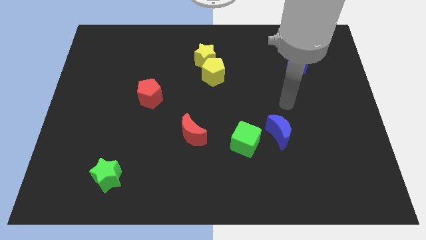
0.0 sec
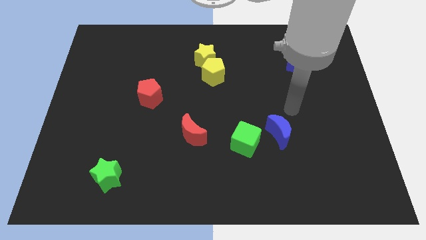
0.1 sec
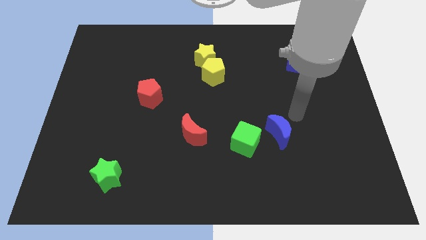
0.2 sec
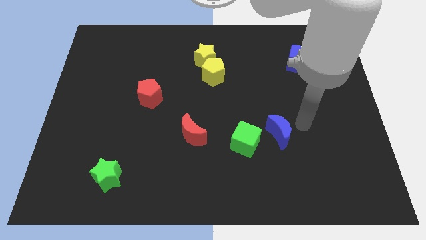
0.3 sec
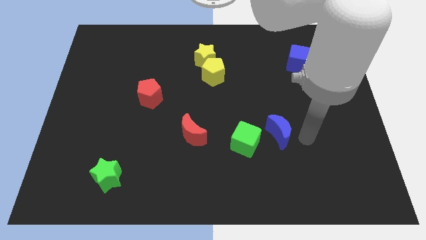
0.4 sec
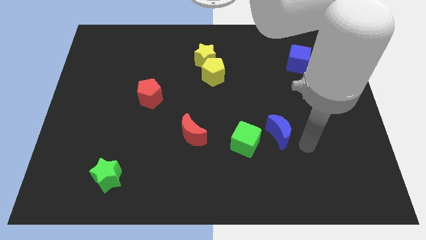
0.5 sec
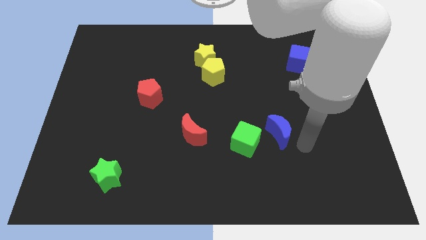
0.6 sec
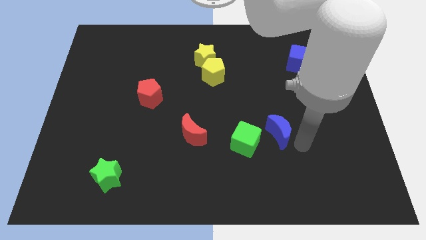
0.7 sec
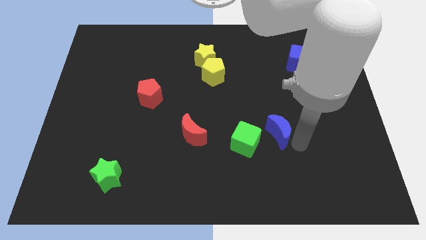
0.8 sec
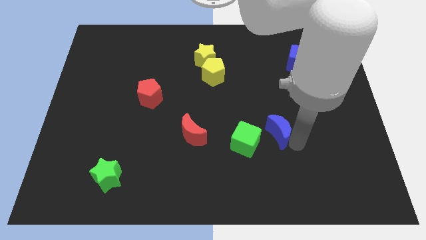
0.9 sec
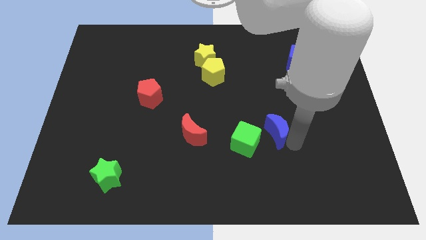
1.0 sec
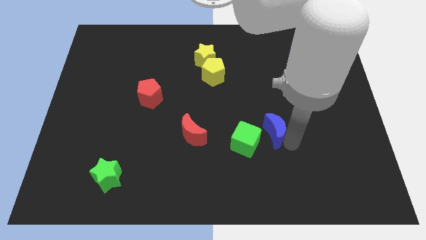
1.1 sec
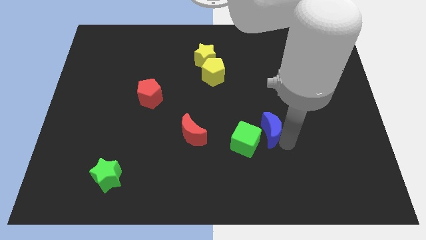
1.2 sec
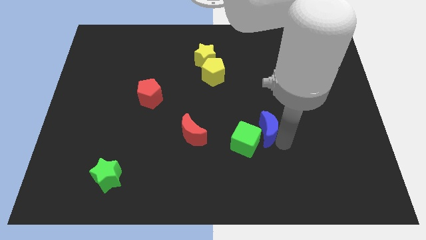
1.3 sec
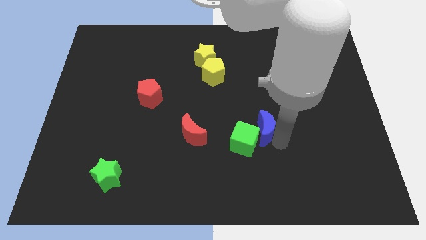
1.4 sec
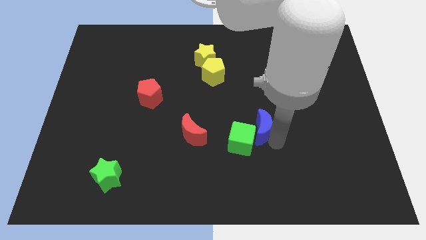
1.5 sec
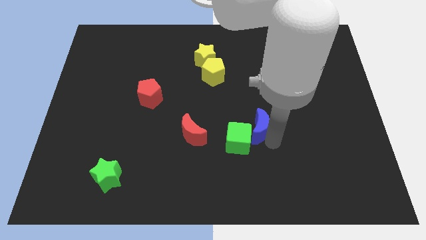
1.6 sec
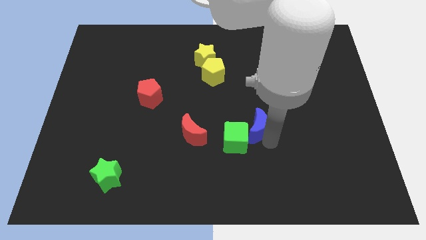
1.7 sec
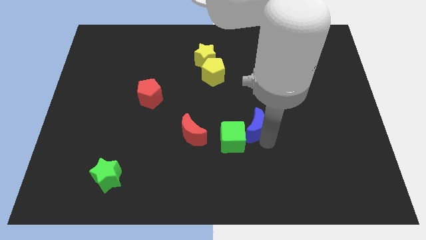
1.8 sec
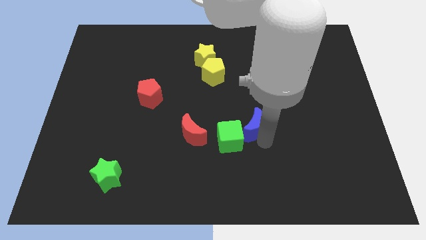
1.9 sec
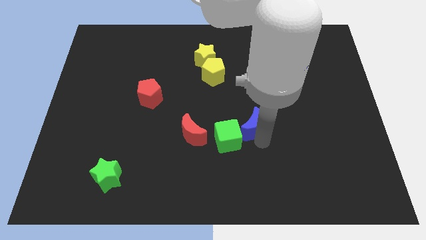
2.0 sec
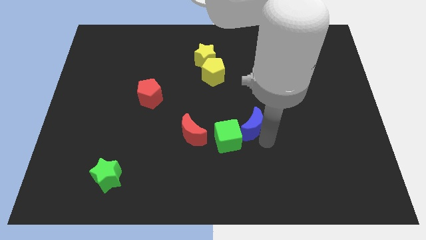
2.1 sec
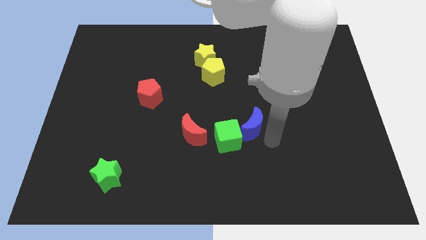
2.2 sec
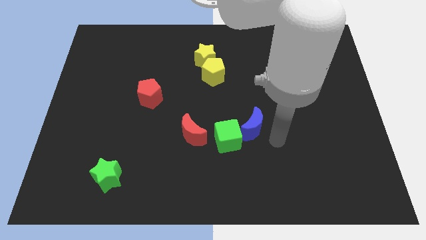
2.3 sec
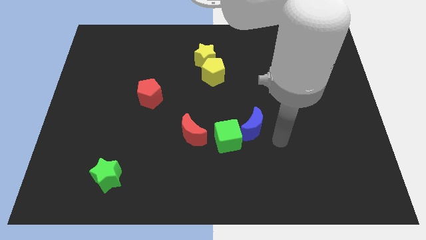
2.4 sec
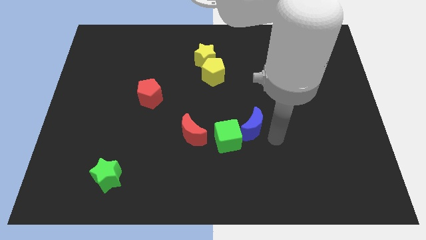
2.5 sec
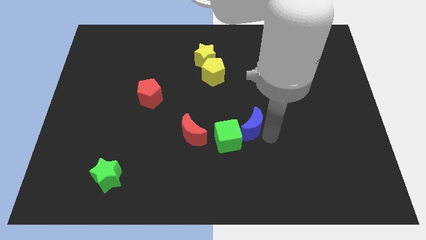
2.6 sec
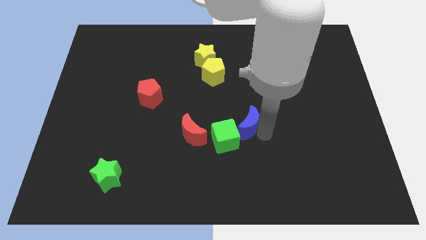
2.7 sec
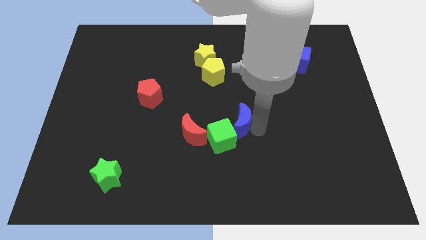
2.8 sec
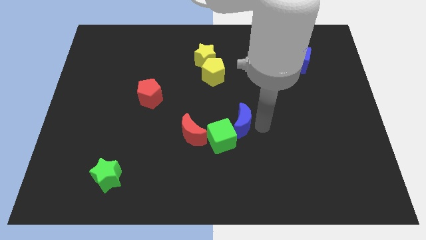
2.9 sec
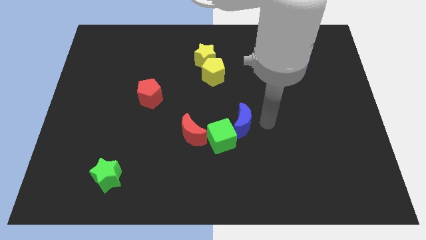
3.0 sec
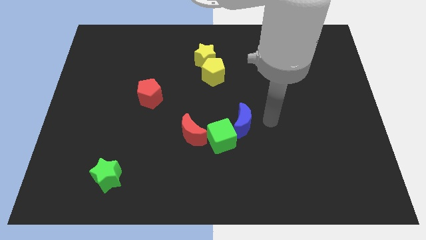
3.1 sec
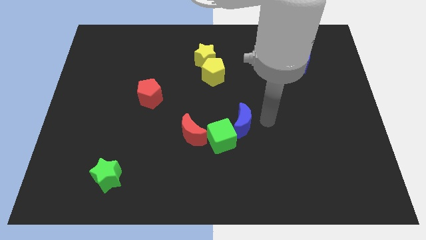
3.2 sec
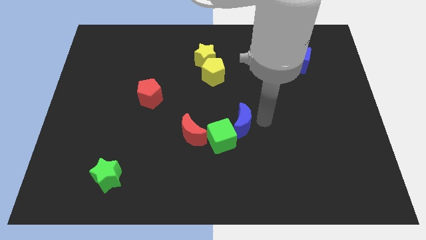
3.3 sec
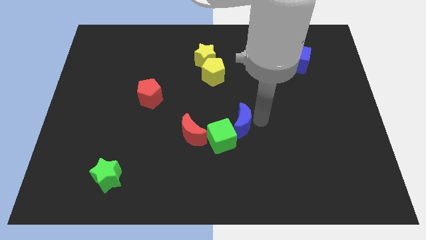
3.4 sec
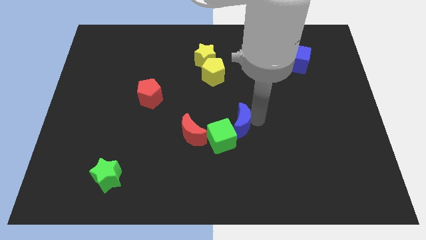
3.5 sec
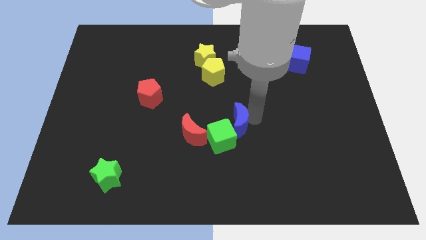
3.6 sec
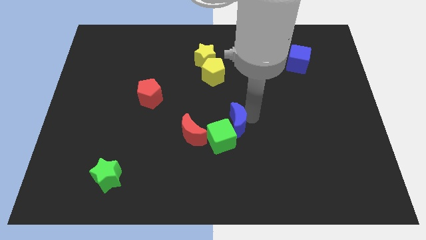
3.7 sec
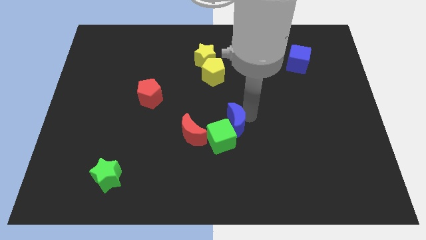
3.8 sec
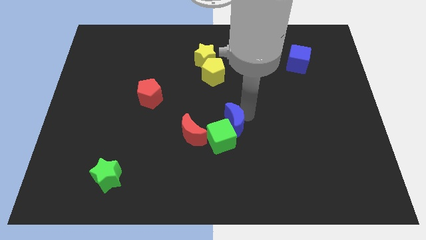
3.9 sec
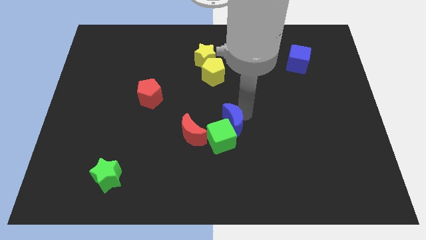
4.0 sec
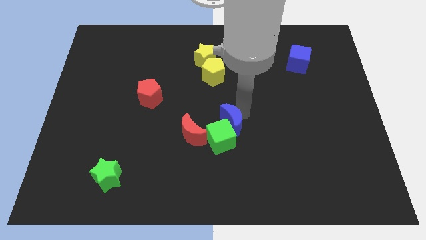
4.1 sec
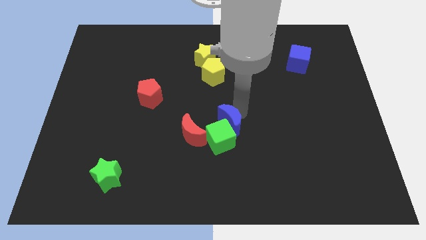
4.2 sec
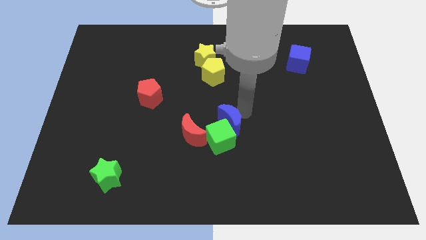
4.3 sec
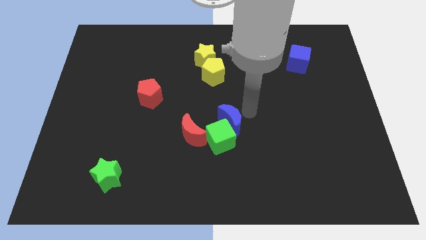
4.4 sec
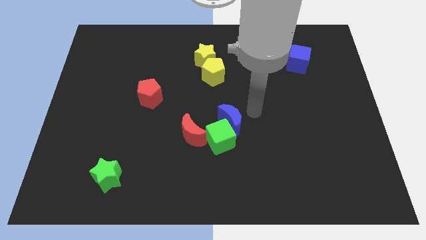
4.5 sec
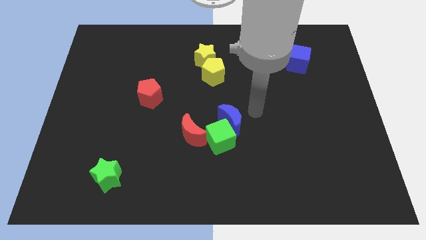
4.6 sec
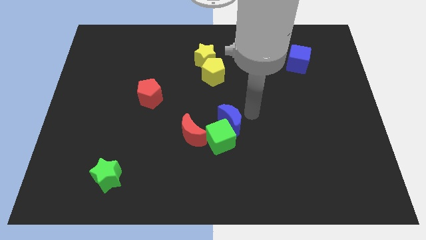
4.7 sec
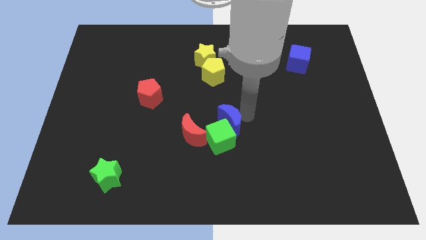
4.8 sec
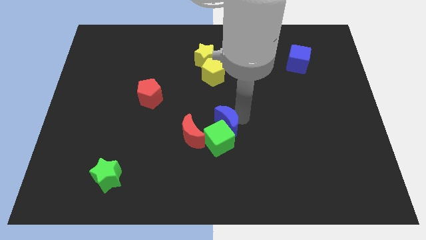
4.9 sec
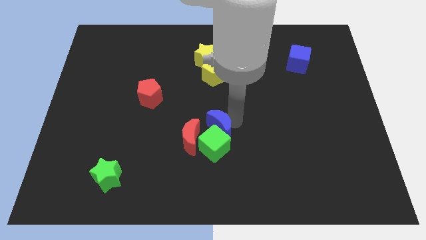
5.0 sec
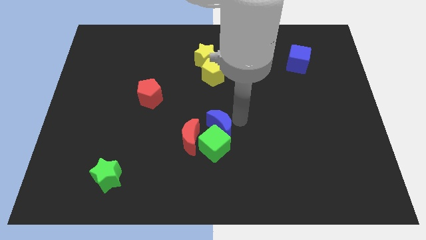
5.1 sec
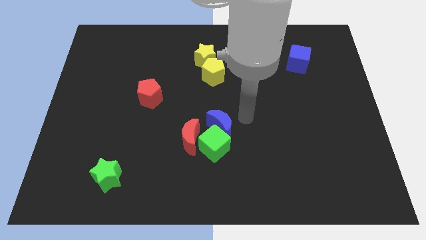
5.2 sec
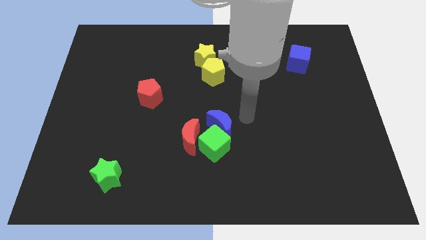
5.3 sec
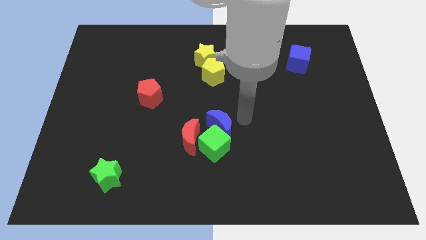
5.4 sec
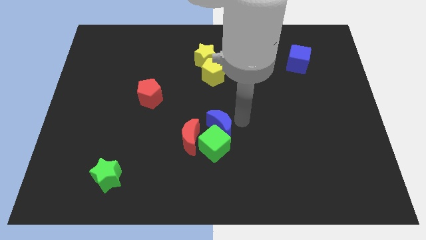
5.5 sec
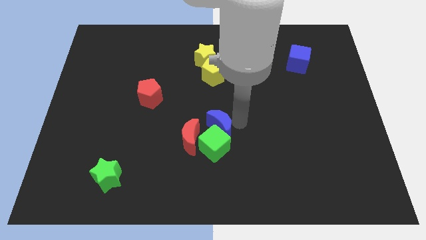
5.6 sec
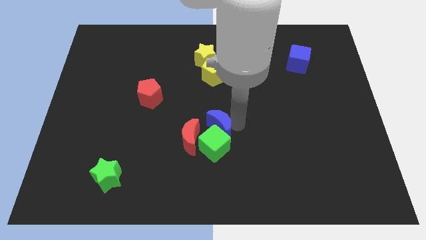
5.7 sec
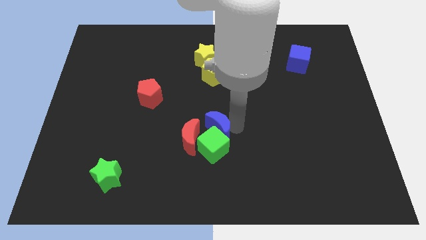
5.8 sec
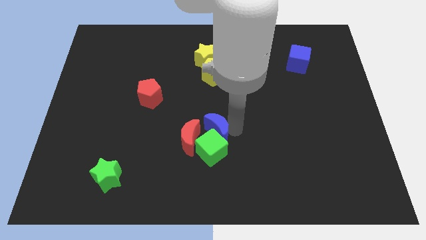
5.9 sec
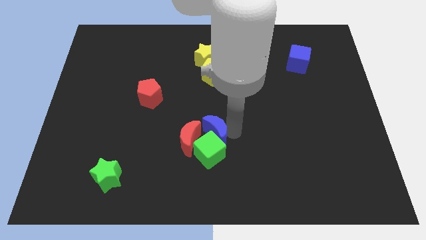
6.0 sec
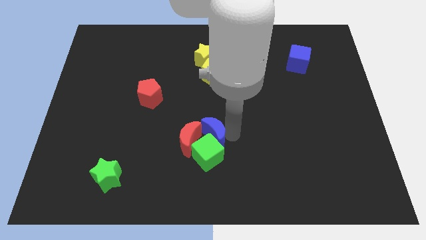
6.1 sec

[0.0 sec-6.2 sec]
move the blue moon towards the red moon
